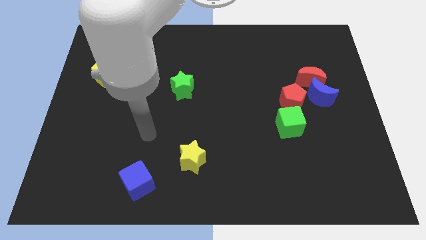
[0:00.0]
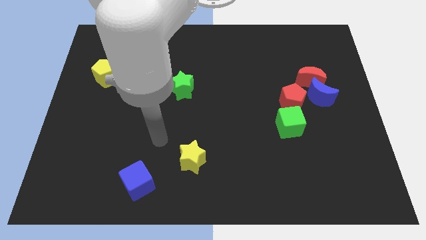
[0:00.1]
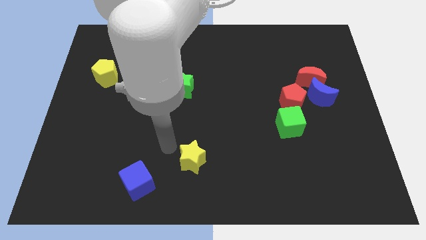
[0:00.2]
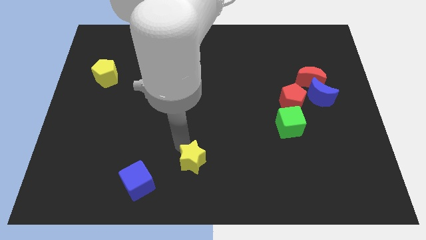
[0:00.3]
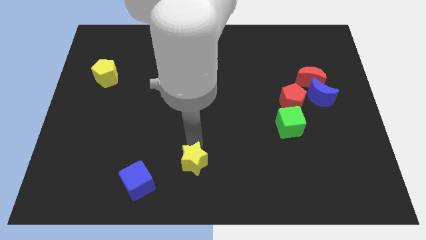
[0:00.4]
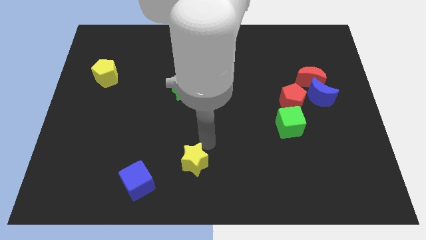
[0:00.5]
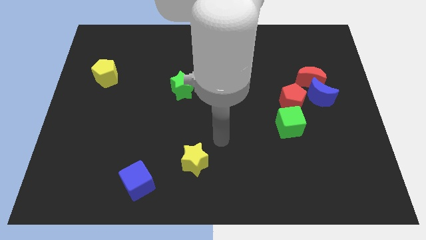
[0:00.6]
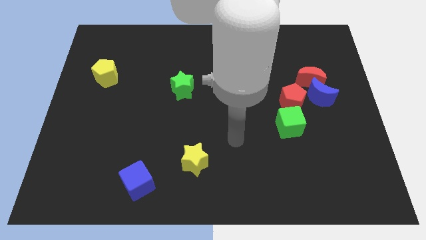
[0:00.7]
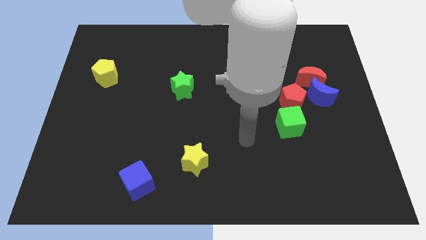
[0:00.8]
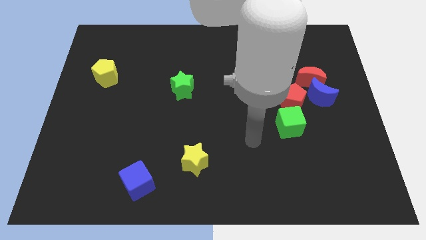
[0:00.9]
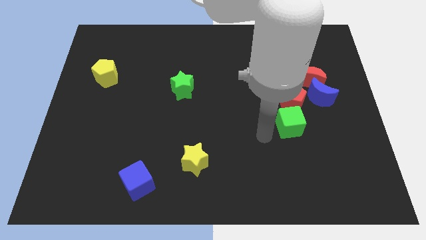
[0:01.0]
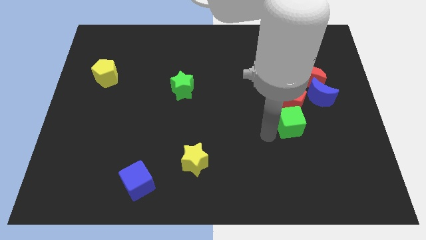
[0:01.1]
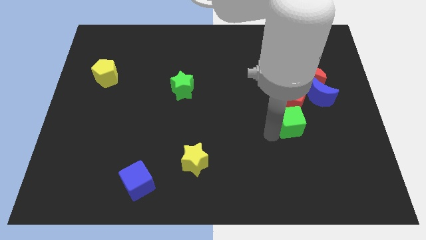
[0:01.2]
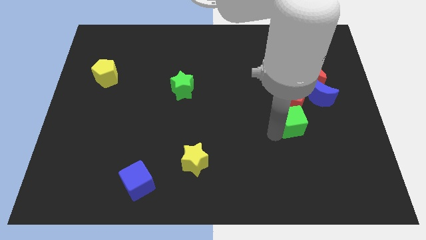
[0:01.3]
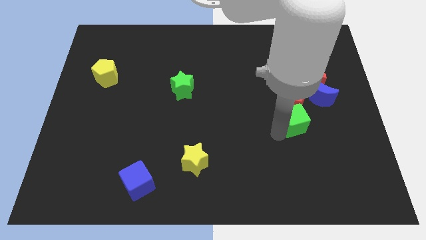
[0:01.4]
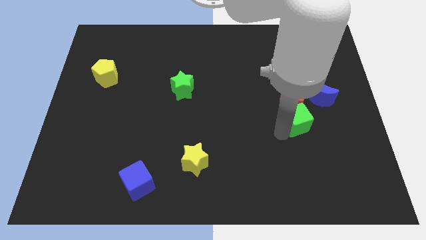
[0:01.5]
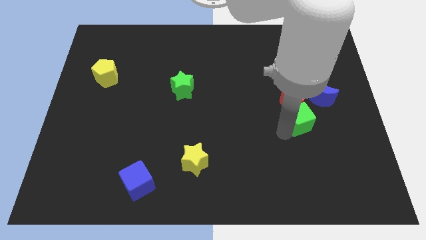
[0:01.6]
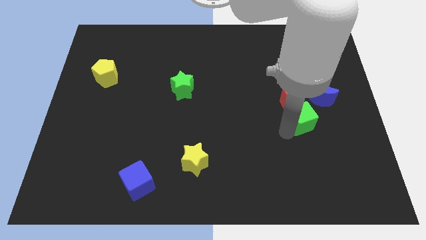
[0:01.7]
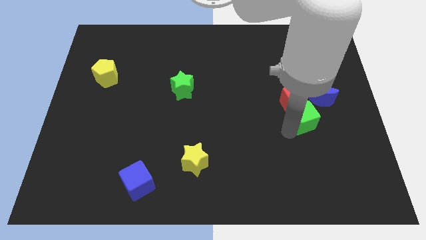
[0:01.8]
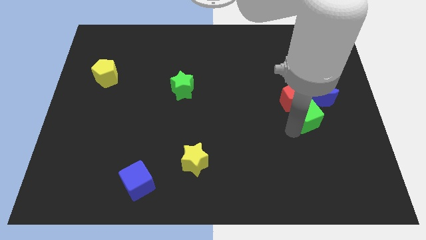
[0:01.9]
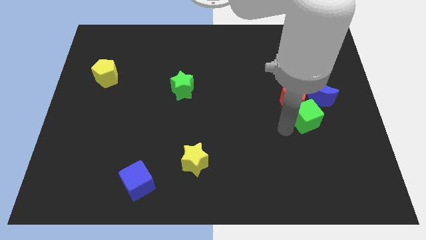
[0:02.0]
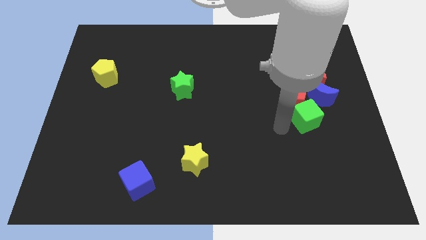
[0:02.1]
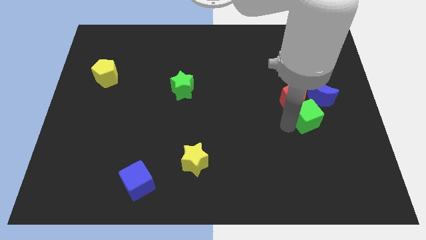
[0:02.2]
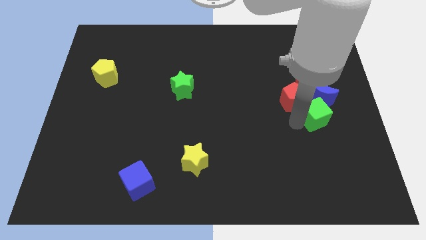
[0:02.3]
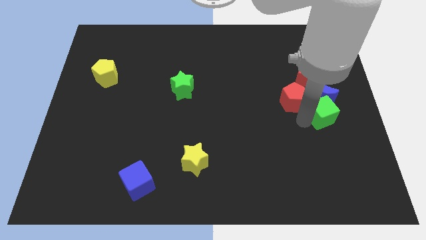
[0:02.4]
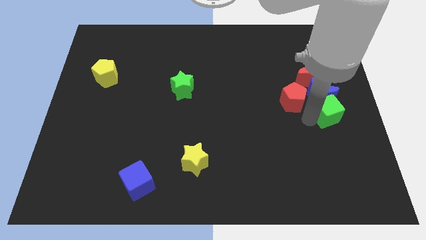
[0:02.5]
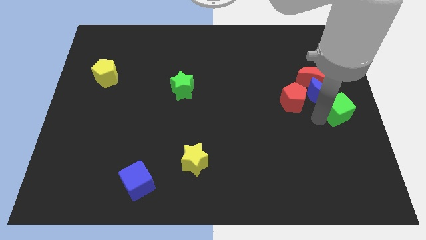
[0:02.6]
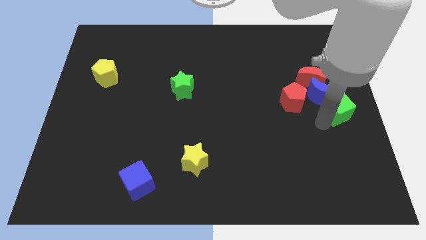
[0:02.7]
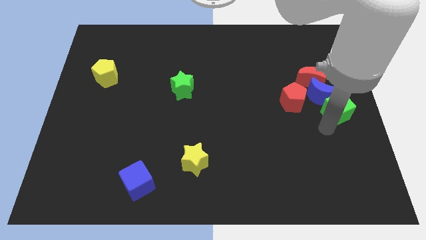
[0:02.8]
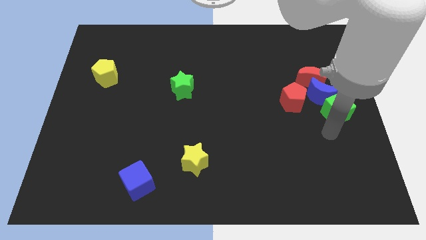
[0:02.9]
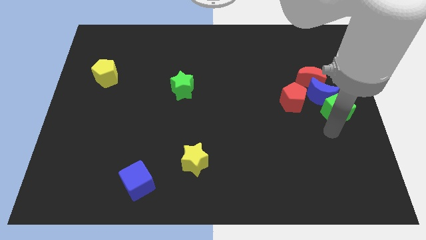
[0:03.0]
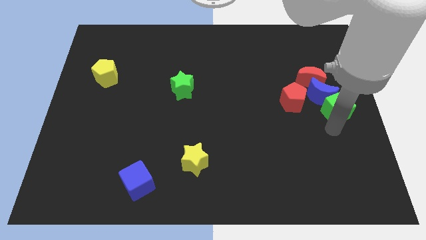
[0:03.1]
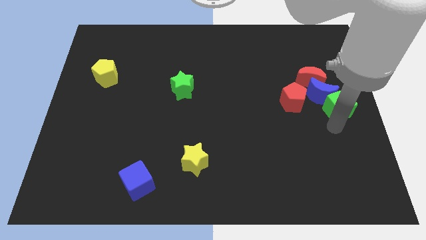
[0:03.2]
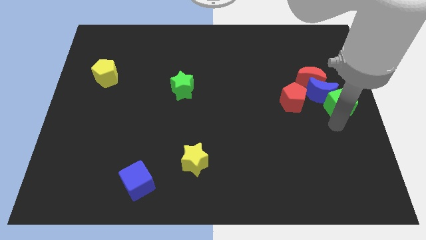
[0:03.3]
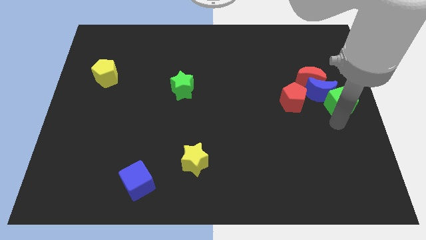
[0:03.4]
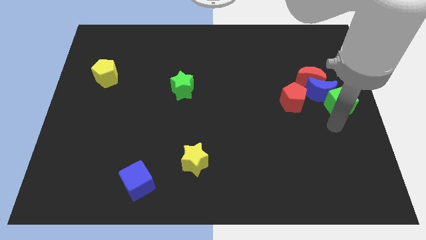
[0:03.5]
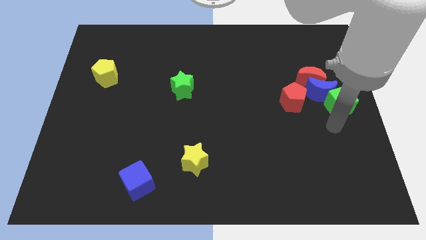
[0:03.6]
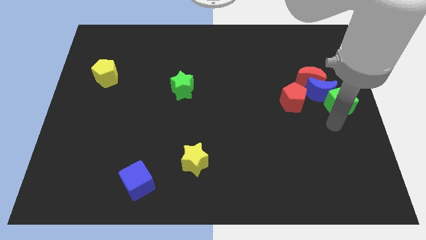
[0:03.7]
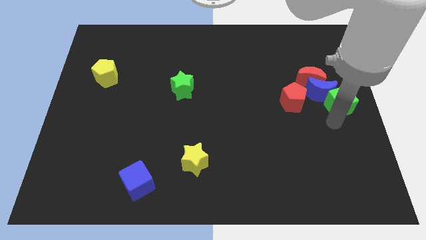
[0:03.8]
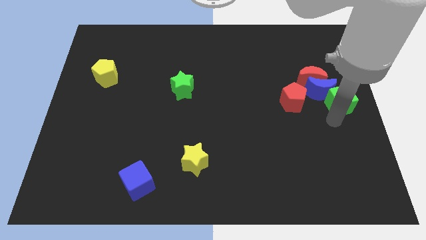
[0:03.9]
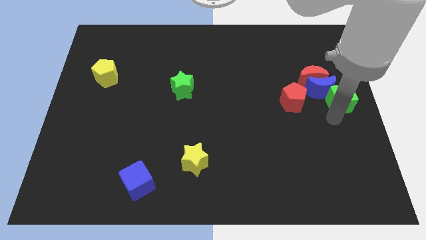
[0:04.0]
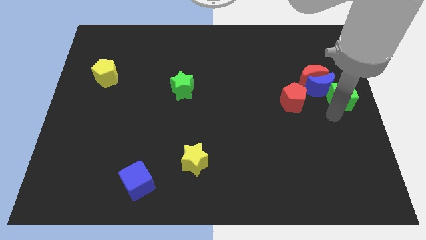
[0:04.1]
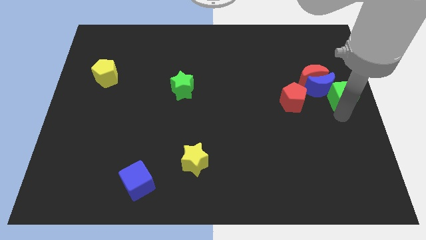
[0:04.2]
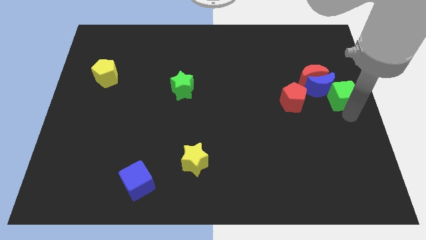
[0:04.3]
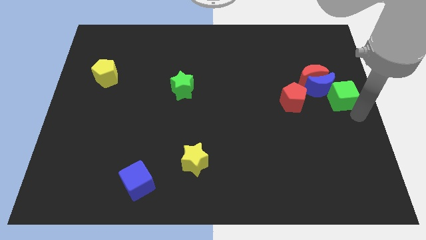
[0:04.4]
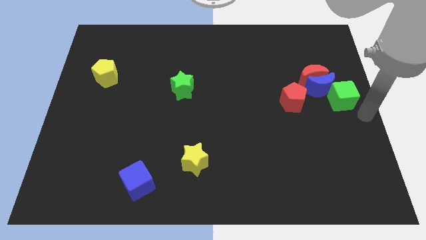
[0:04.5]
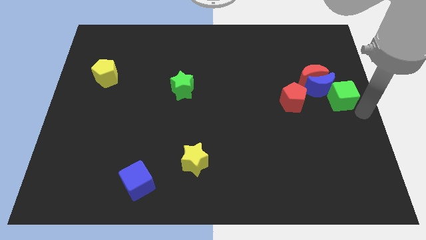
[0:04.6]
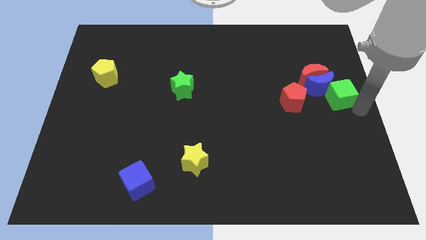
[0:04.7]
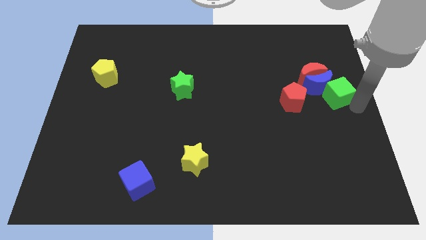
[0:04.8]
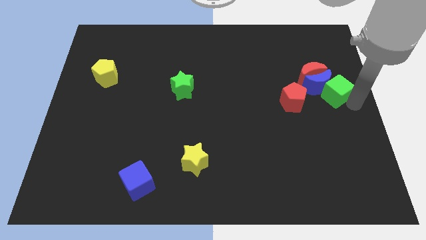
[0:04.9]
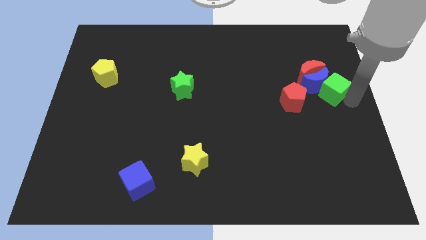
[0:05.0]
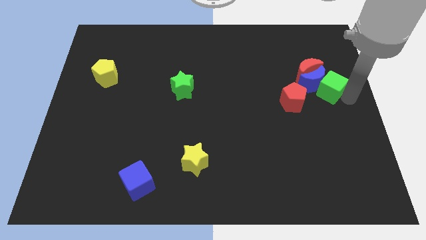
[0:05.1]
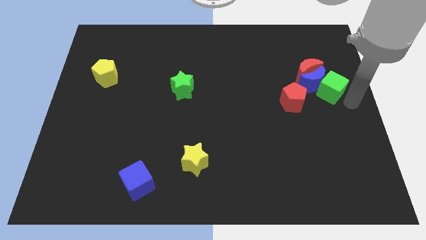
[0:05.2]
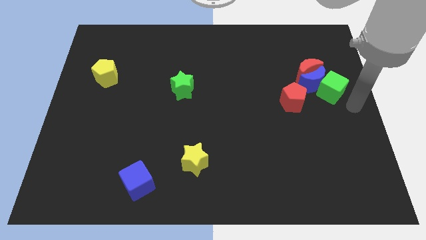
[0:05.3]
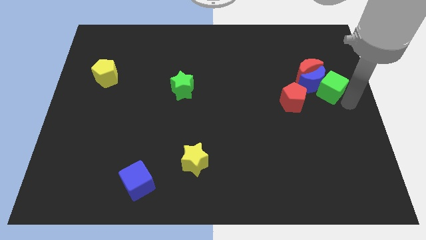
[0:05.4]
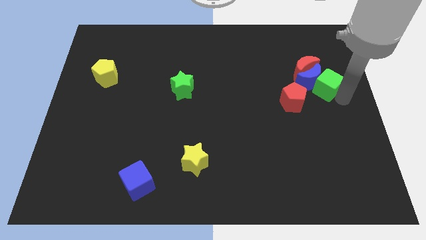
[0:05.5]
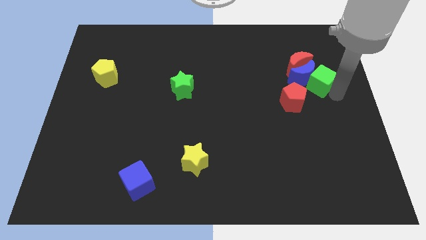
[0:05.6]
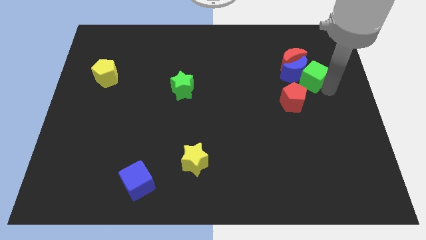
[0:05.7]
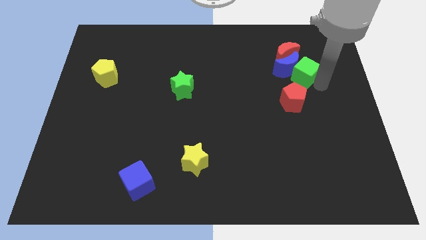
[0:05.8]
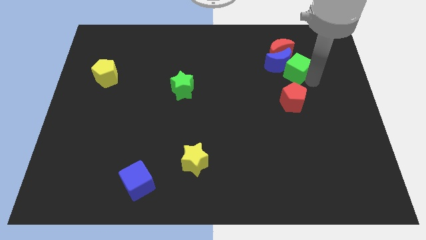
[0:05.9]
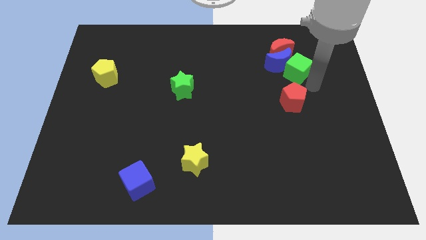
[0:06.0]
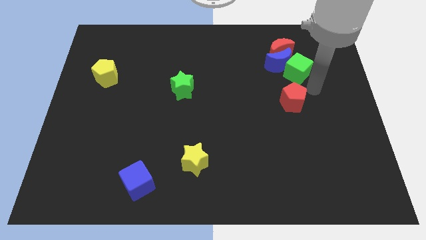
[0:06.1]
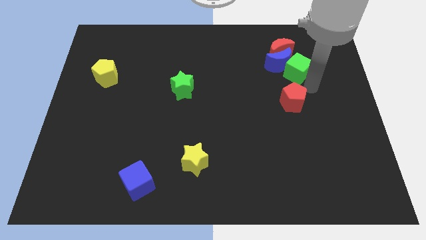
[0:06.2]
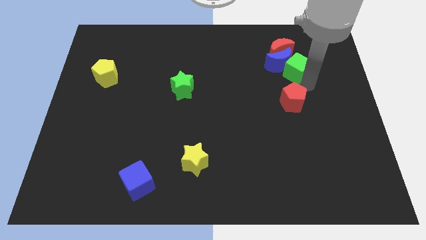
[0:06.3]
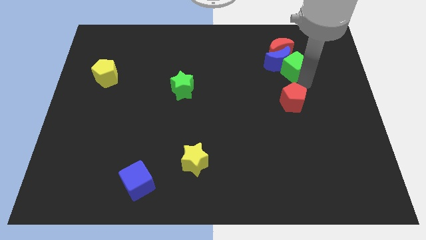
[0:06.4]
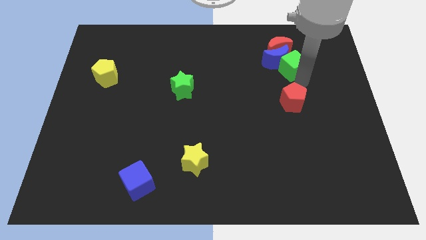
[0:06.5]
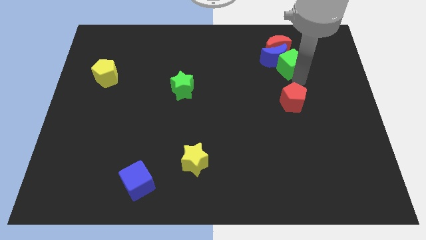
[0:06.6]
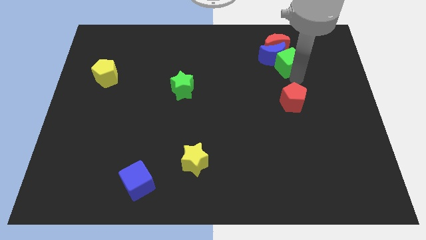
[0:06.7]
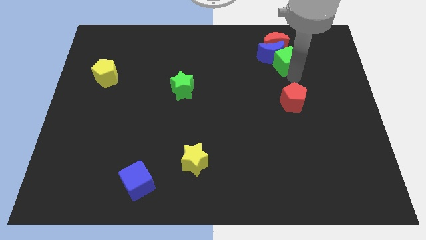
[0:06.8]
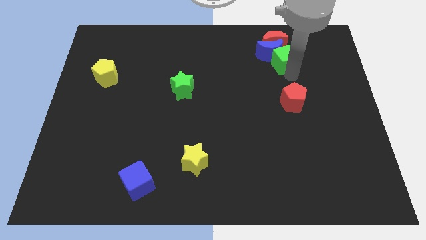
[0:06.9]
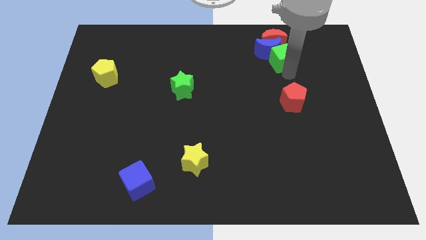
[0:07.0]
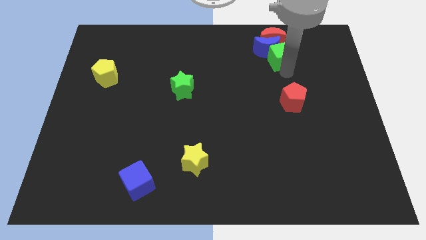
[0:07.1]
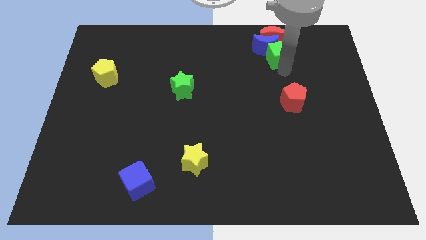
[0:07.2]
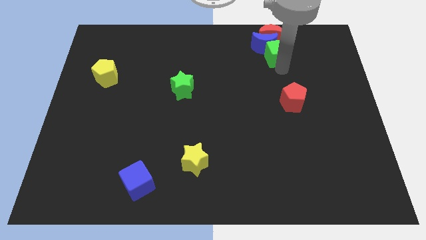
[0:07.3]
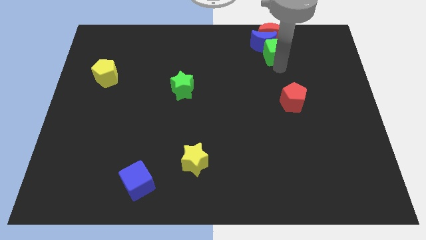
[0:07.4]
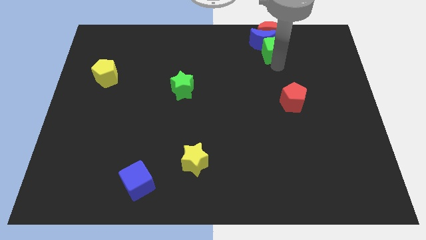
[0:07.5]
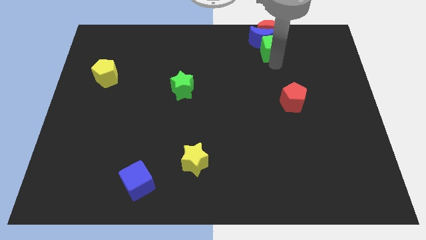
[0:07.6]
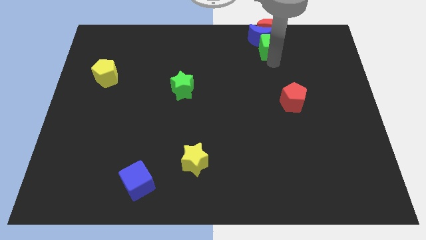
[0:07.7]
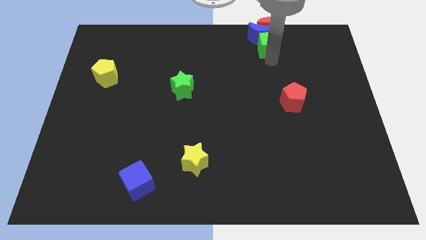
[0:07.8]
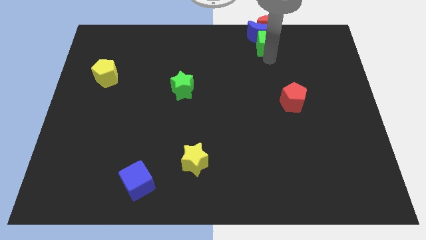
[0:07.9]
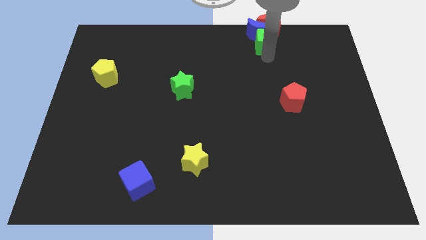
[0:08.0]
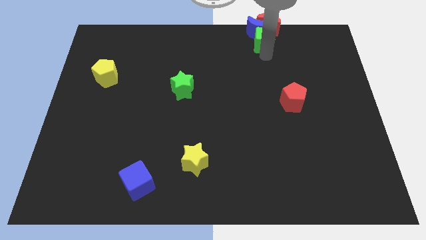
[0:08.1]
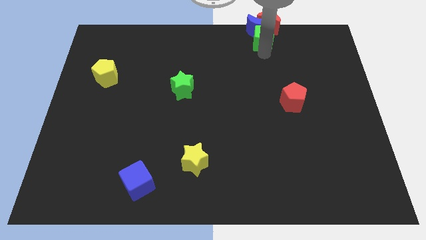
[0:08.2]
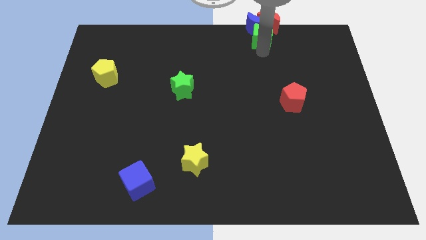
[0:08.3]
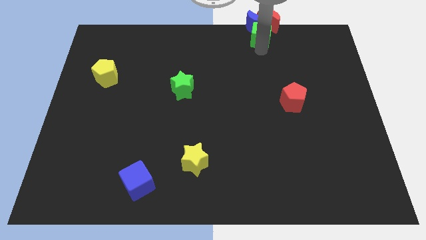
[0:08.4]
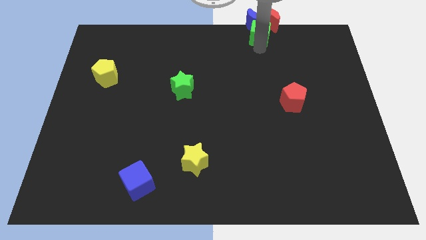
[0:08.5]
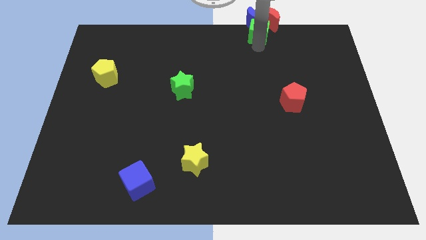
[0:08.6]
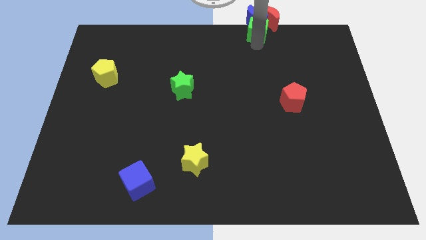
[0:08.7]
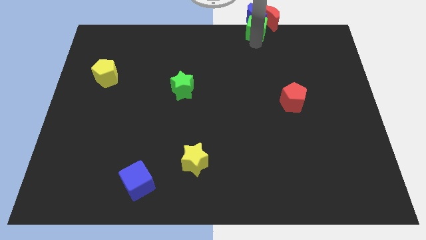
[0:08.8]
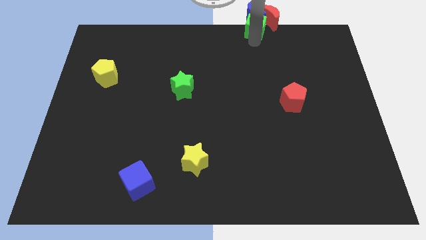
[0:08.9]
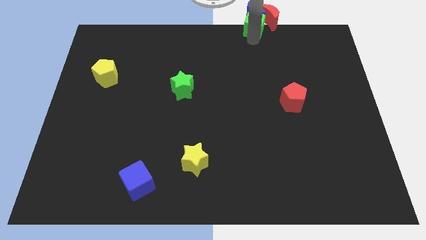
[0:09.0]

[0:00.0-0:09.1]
slide the green cube towards the red moon
